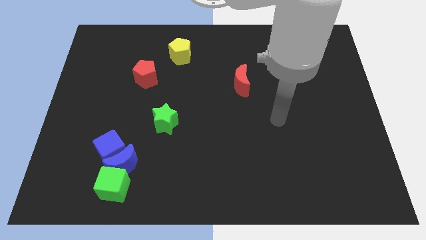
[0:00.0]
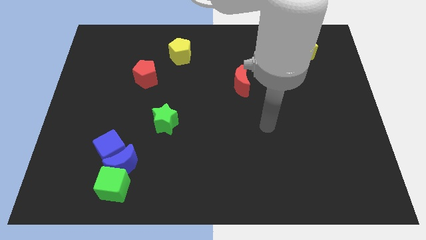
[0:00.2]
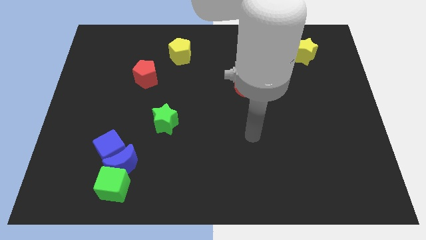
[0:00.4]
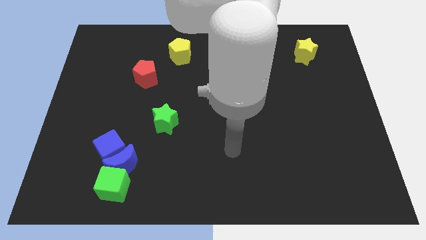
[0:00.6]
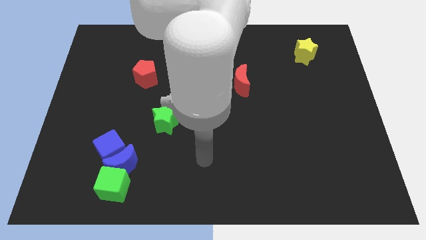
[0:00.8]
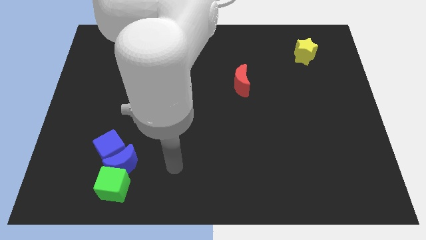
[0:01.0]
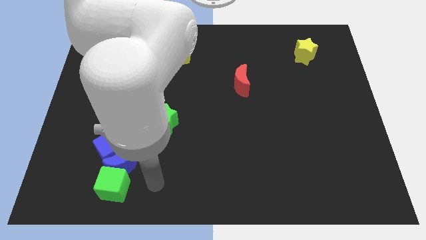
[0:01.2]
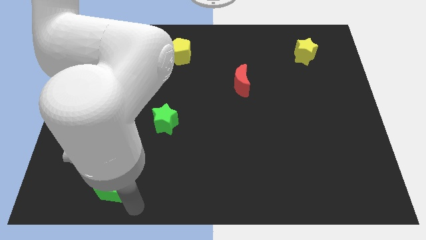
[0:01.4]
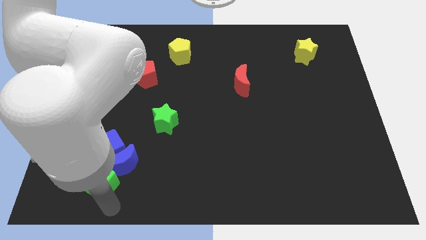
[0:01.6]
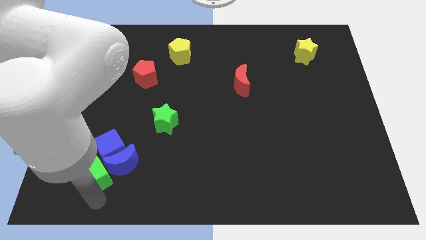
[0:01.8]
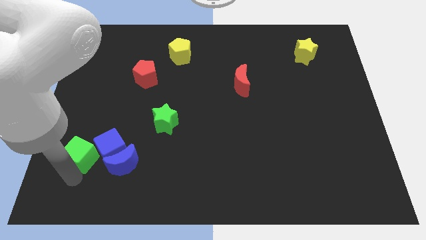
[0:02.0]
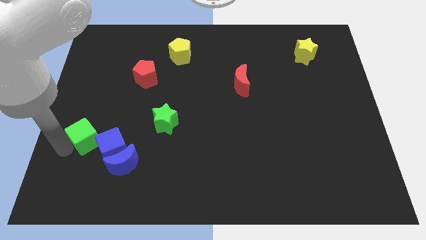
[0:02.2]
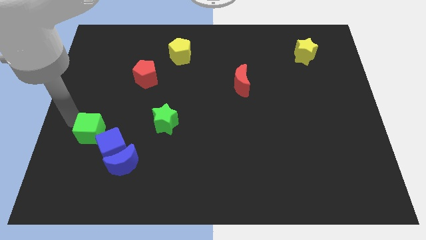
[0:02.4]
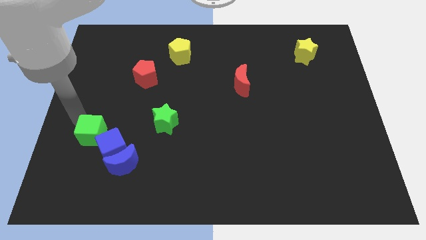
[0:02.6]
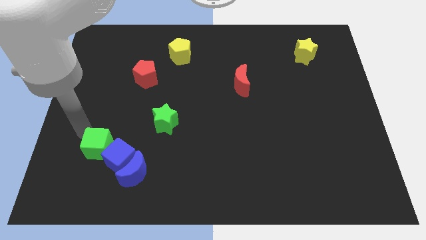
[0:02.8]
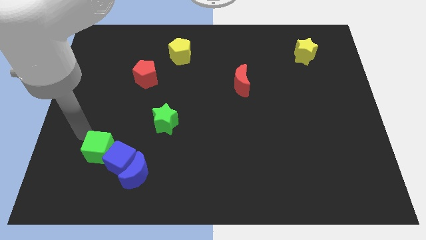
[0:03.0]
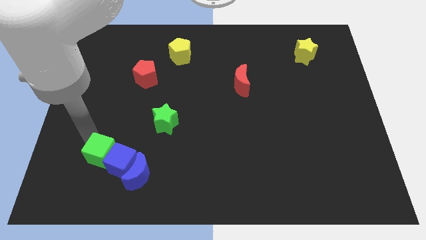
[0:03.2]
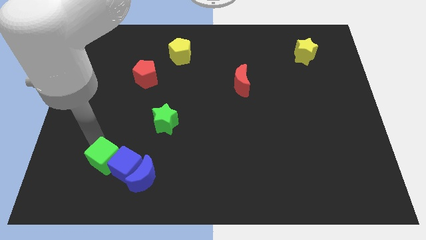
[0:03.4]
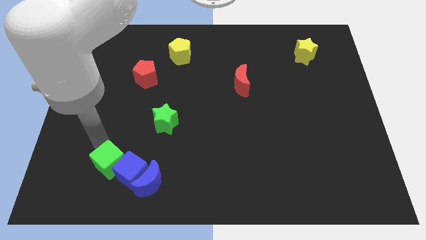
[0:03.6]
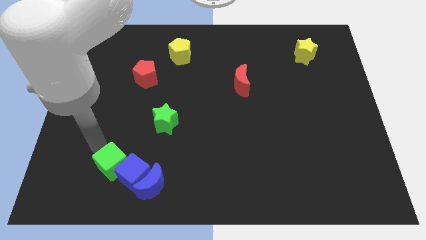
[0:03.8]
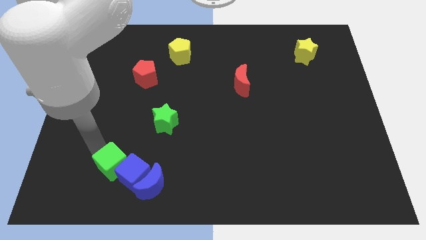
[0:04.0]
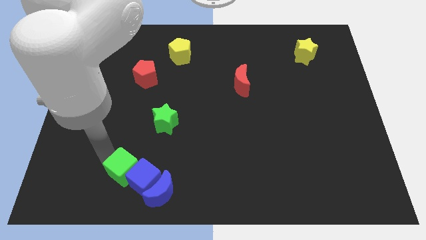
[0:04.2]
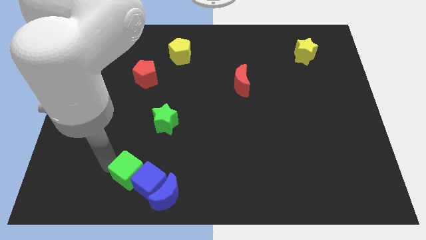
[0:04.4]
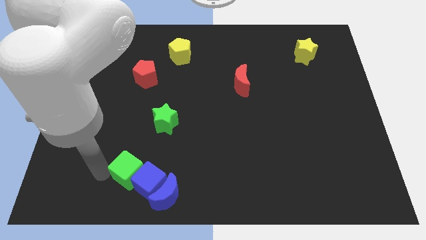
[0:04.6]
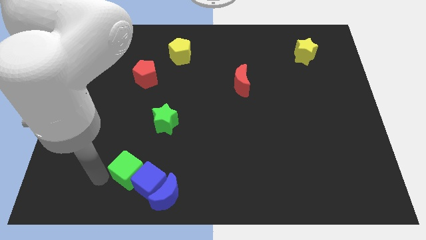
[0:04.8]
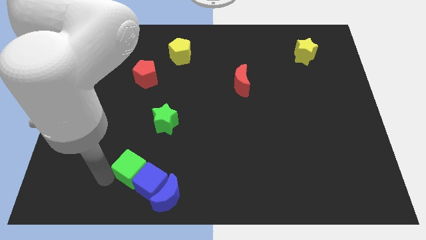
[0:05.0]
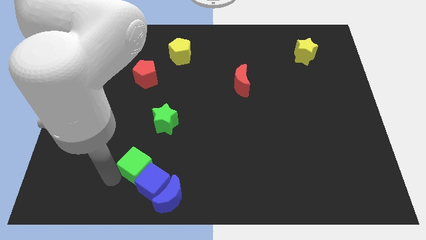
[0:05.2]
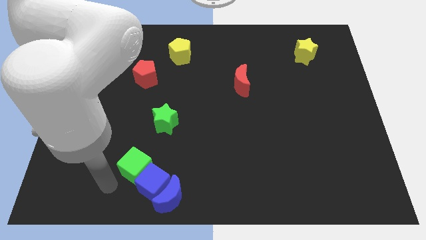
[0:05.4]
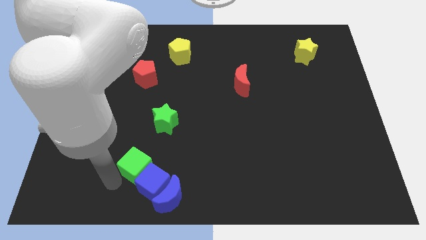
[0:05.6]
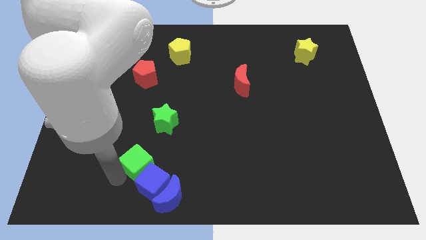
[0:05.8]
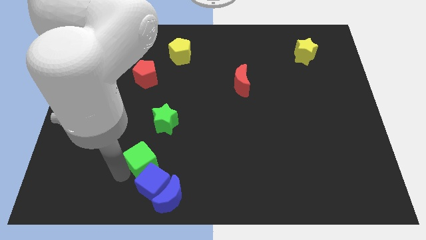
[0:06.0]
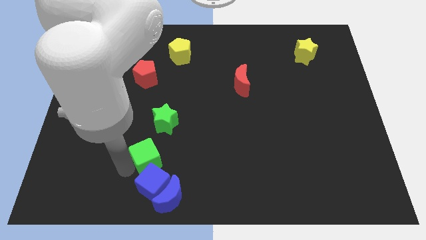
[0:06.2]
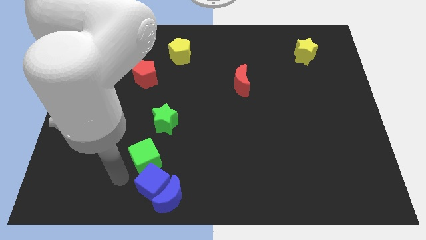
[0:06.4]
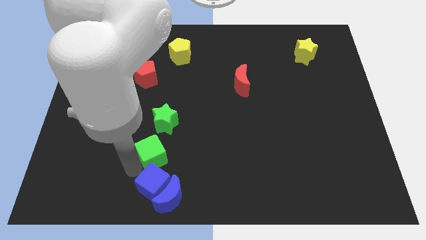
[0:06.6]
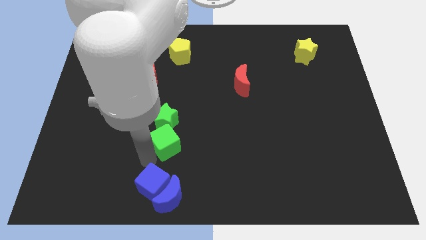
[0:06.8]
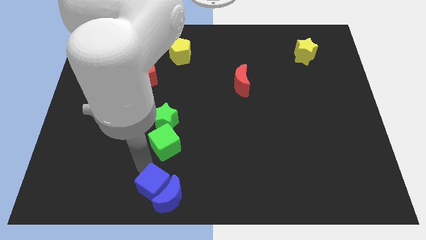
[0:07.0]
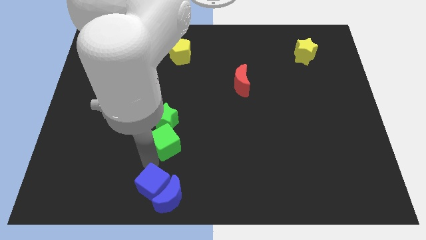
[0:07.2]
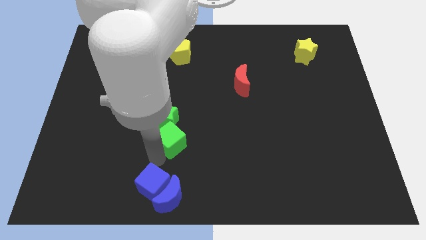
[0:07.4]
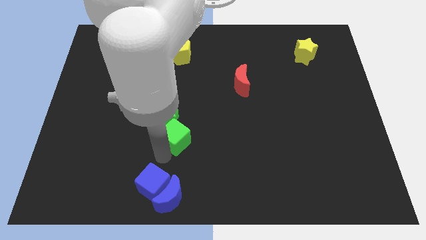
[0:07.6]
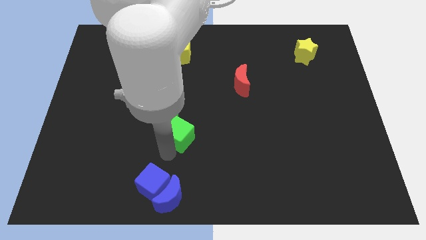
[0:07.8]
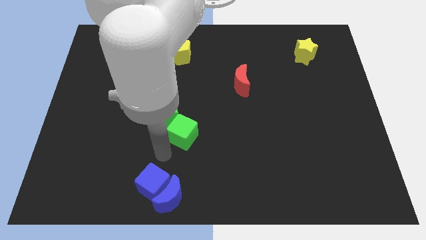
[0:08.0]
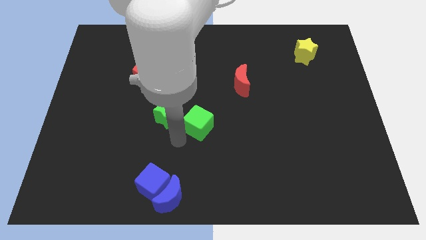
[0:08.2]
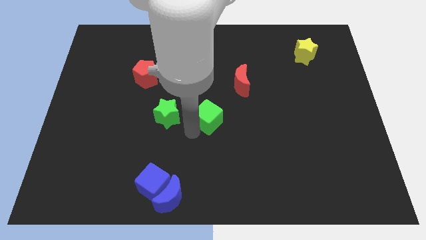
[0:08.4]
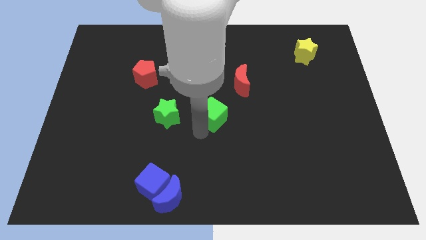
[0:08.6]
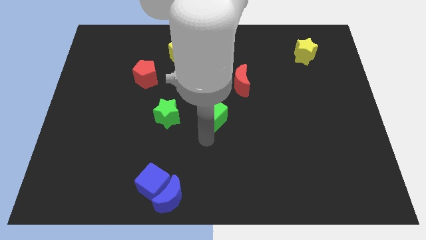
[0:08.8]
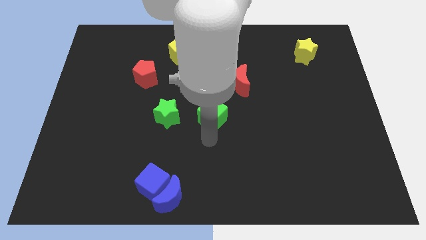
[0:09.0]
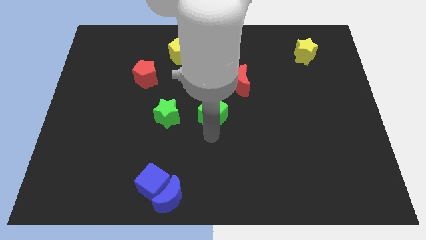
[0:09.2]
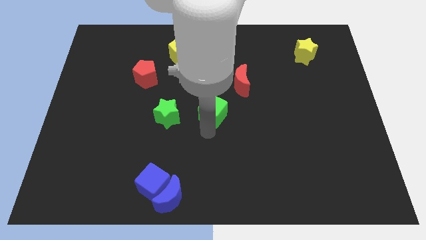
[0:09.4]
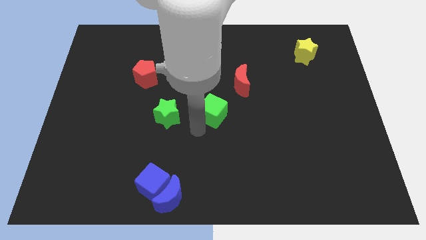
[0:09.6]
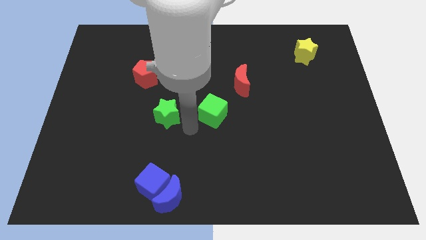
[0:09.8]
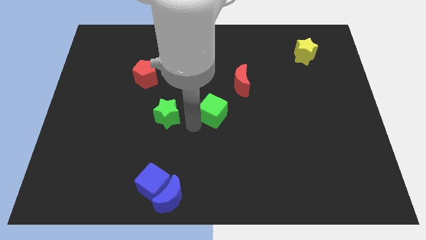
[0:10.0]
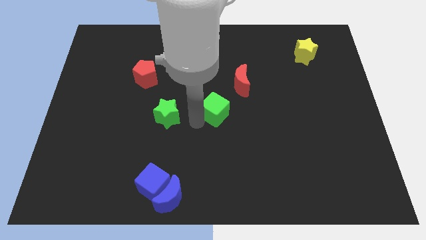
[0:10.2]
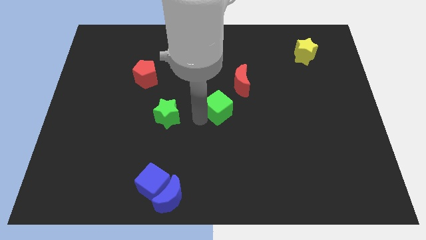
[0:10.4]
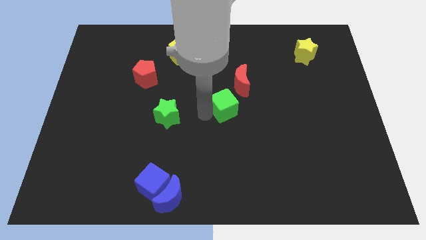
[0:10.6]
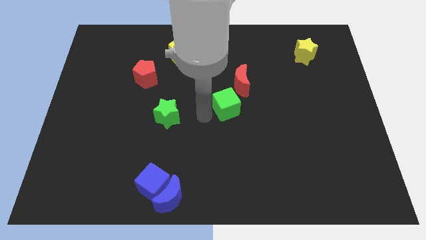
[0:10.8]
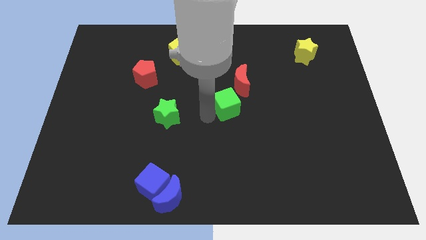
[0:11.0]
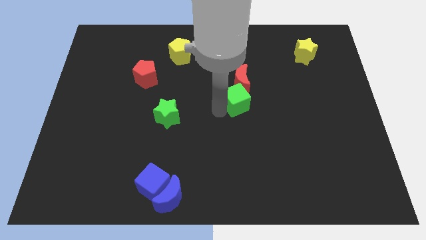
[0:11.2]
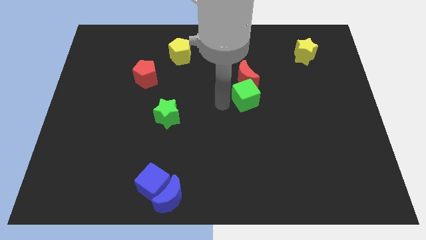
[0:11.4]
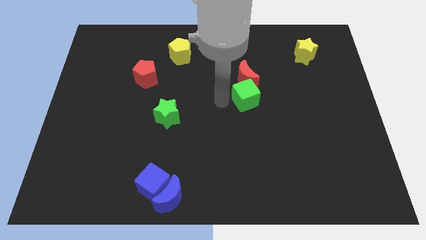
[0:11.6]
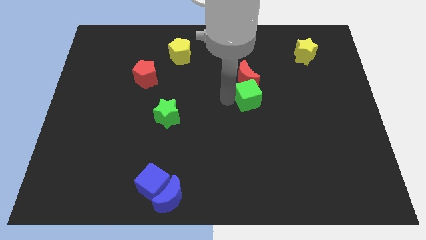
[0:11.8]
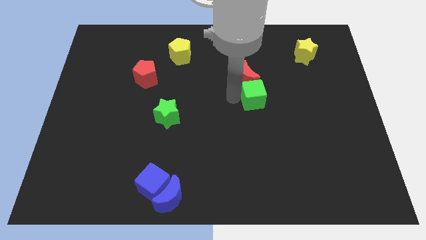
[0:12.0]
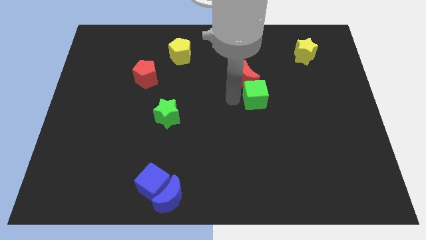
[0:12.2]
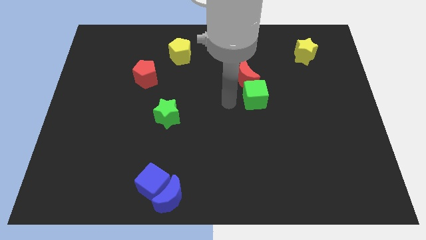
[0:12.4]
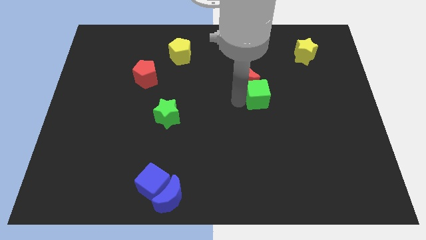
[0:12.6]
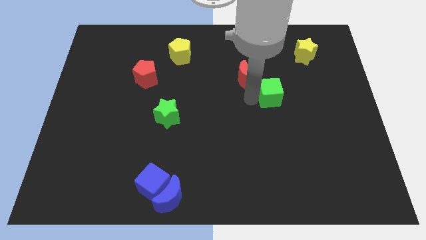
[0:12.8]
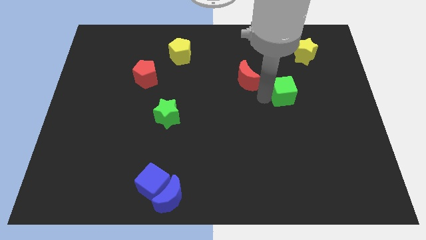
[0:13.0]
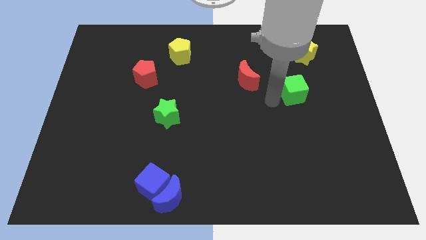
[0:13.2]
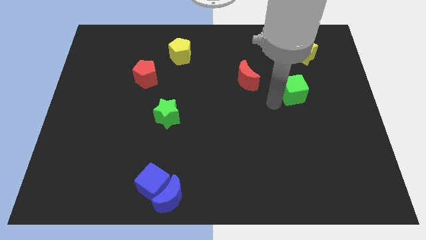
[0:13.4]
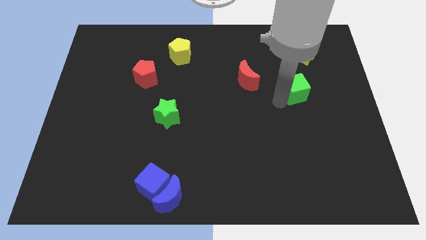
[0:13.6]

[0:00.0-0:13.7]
push the green cube to the bottom side of the yellow star
